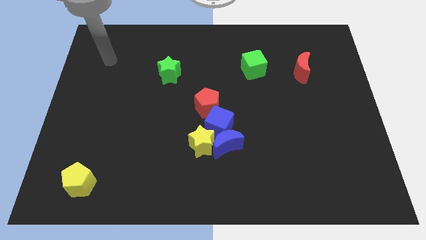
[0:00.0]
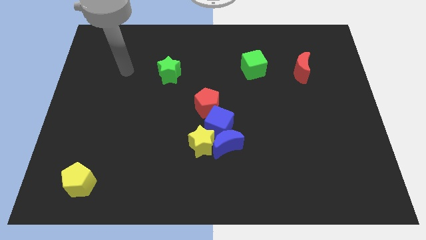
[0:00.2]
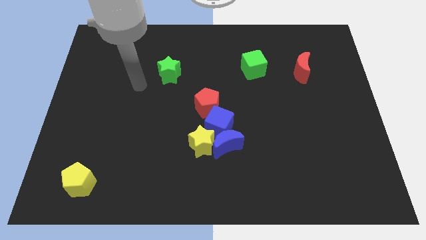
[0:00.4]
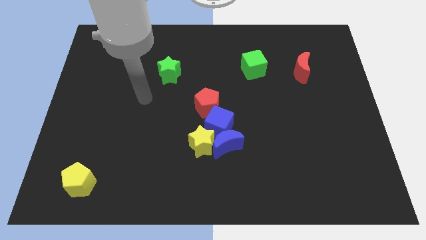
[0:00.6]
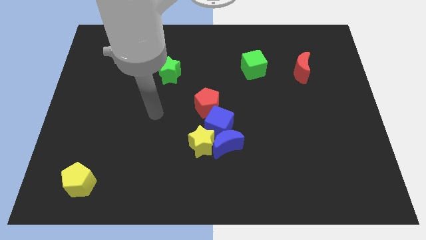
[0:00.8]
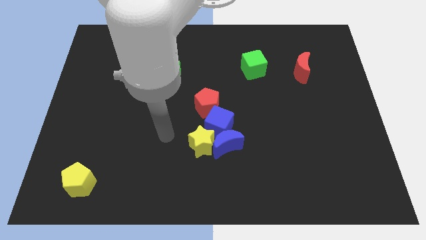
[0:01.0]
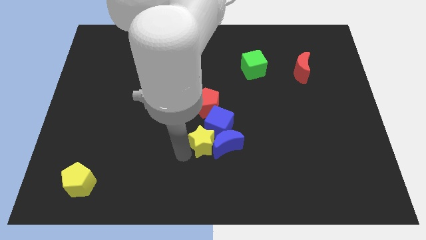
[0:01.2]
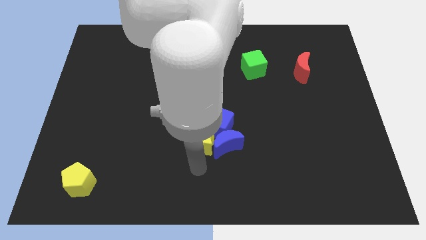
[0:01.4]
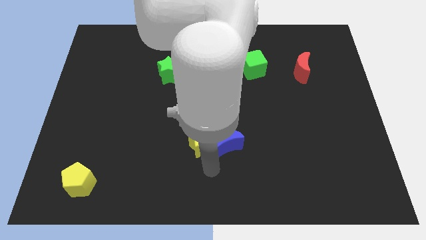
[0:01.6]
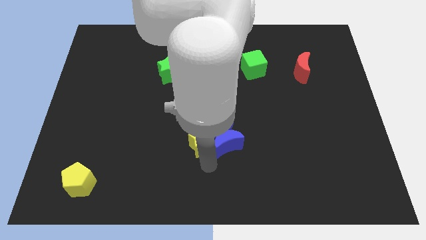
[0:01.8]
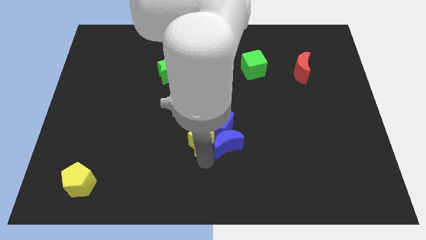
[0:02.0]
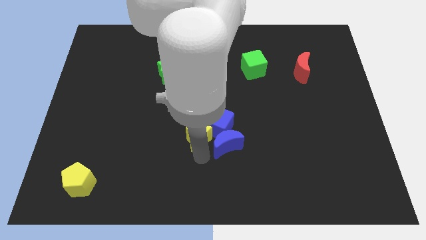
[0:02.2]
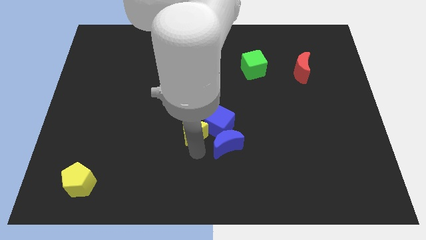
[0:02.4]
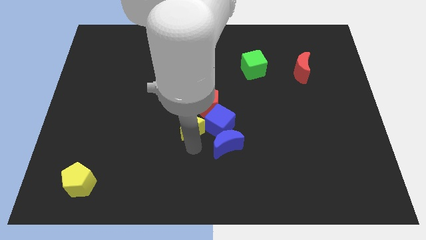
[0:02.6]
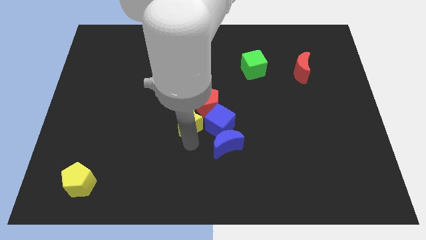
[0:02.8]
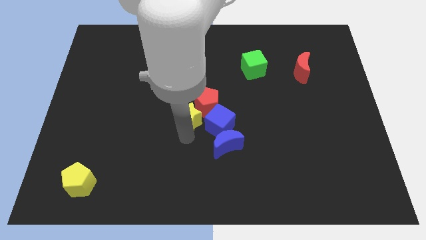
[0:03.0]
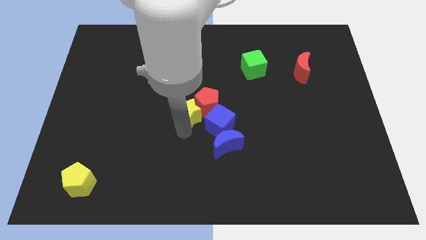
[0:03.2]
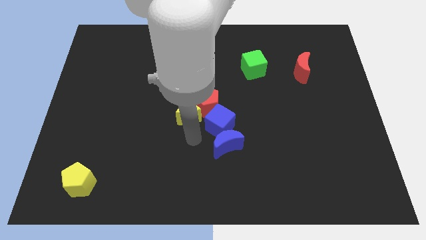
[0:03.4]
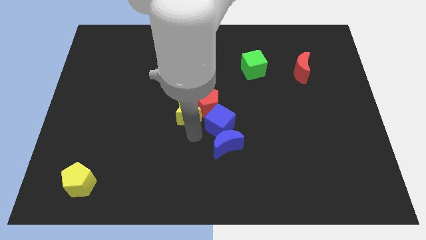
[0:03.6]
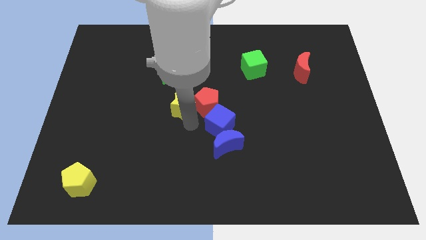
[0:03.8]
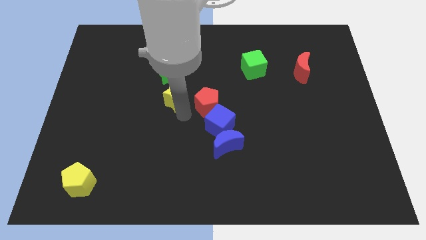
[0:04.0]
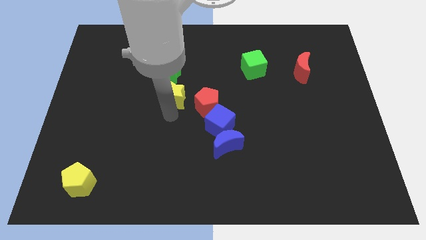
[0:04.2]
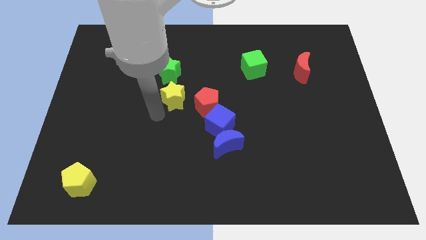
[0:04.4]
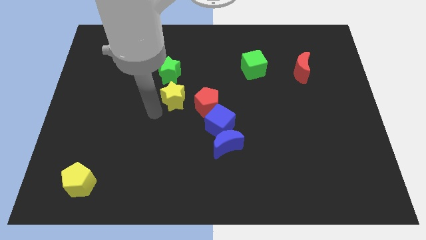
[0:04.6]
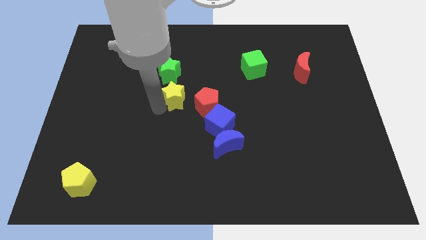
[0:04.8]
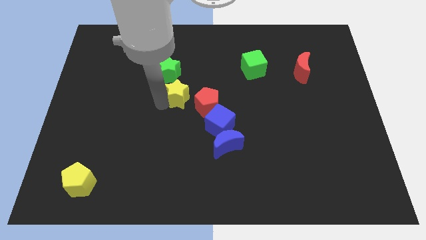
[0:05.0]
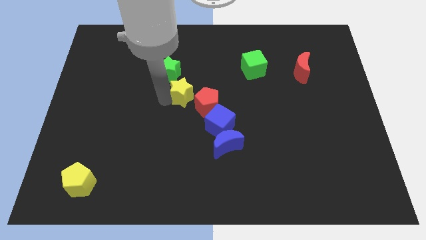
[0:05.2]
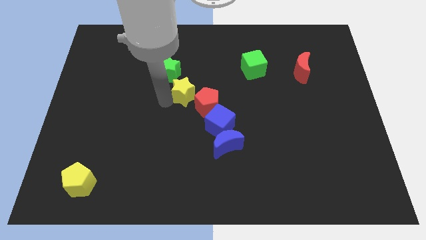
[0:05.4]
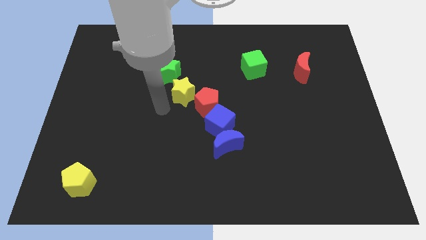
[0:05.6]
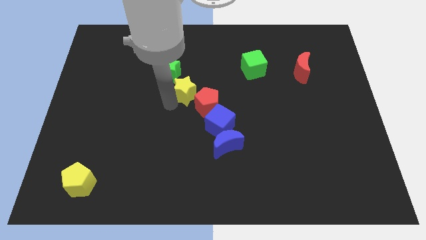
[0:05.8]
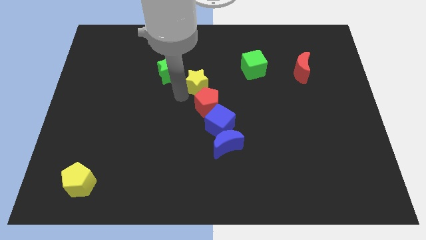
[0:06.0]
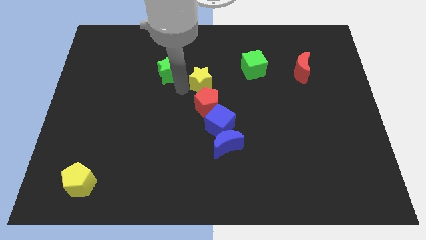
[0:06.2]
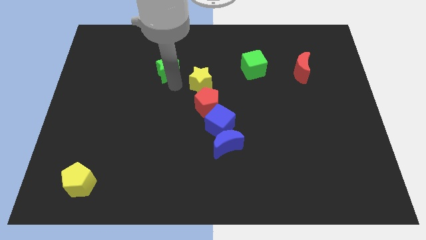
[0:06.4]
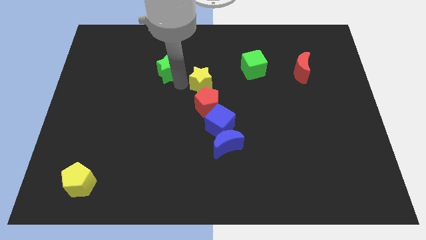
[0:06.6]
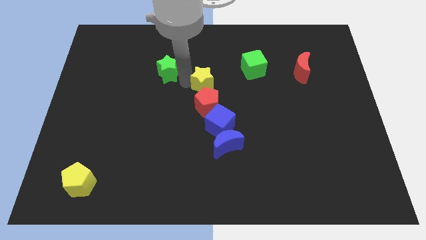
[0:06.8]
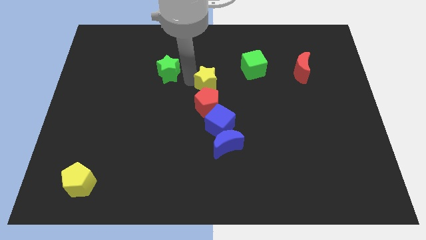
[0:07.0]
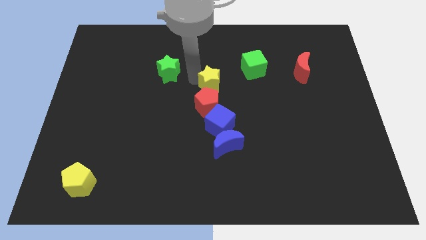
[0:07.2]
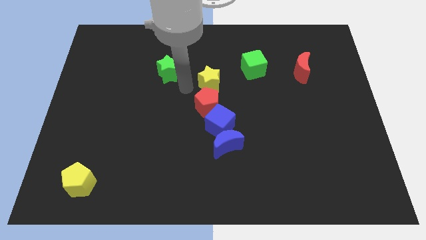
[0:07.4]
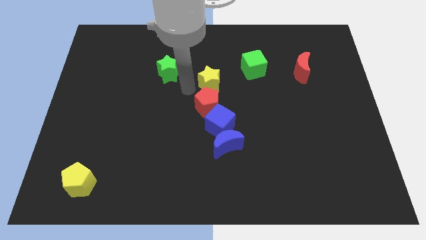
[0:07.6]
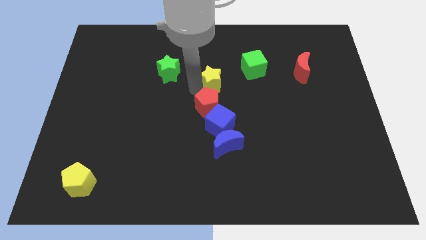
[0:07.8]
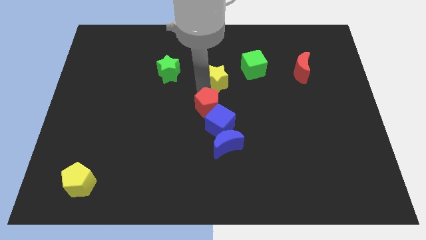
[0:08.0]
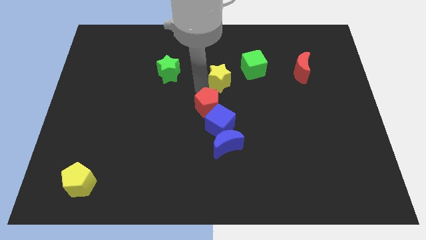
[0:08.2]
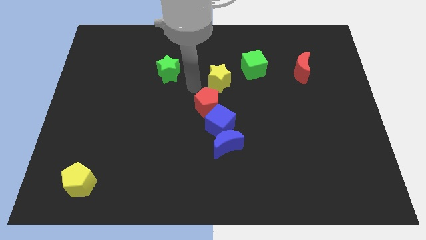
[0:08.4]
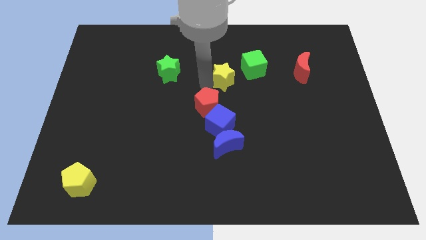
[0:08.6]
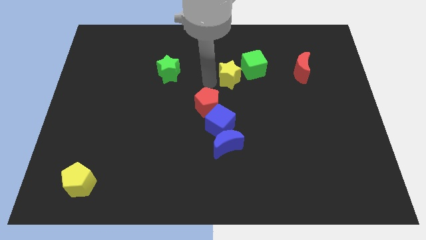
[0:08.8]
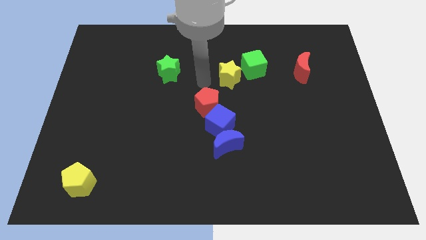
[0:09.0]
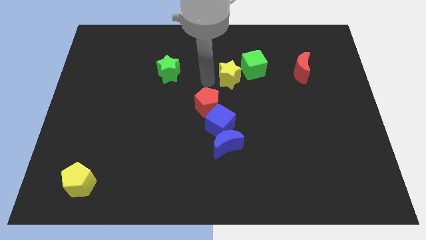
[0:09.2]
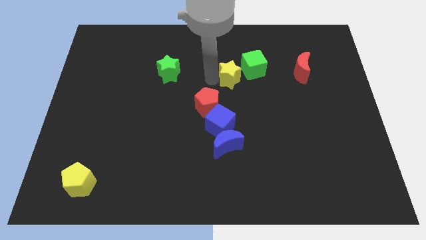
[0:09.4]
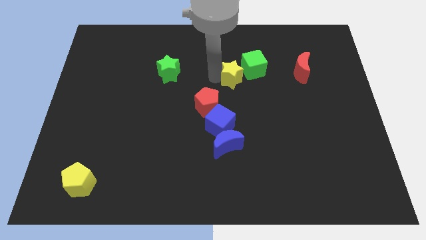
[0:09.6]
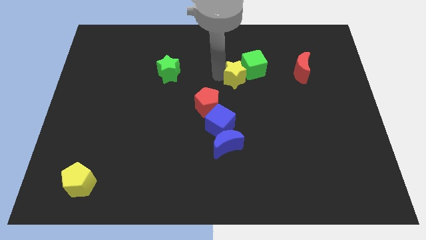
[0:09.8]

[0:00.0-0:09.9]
put the yellow star towards the green cube

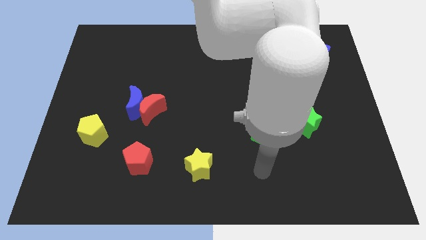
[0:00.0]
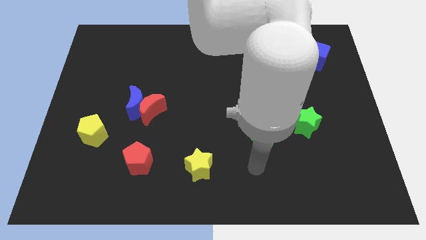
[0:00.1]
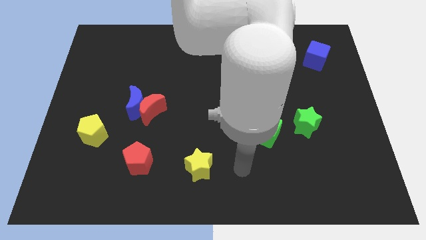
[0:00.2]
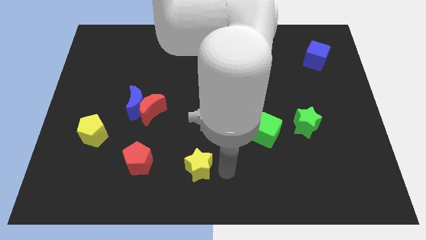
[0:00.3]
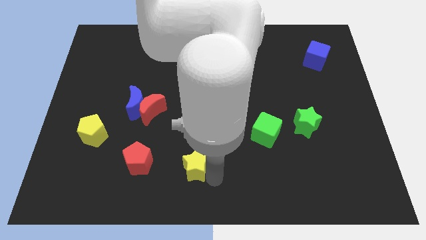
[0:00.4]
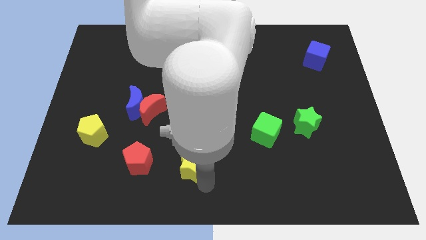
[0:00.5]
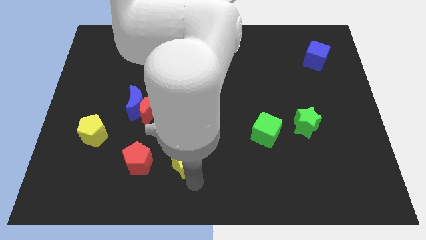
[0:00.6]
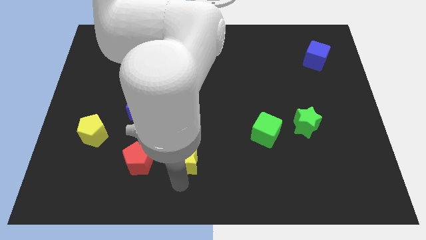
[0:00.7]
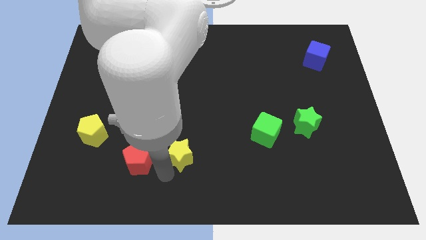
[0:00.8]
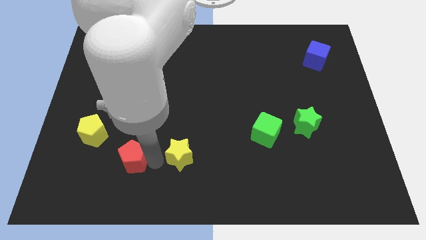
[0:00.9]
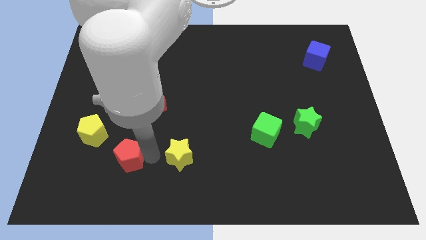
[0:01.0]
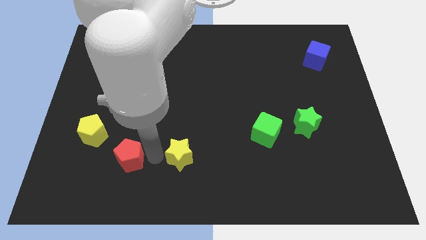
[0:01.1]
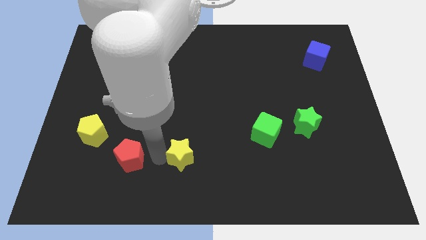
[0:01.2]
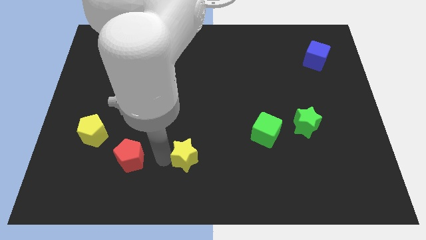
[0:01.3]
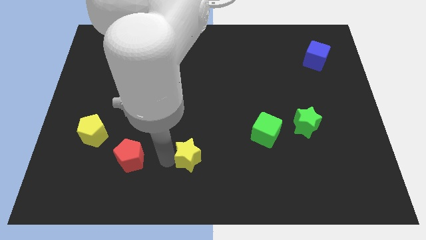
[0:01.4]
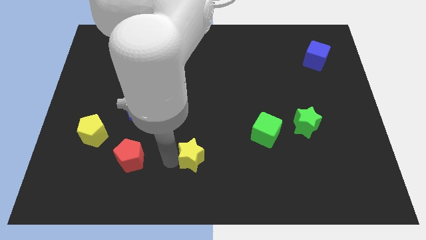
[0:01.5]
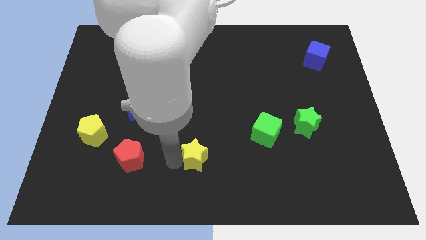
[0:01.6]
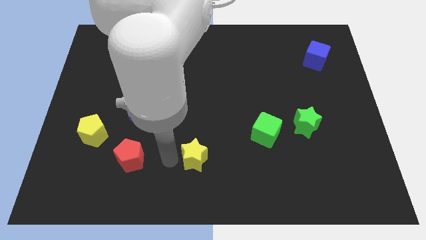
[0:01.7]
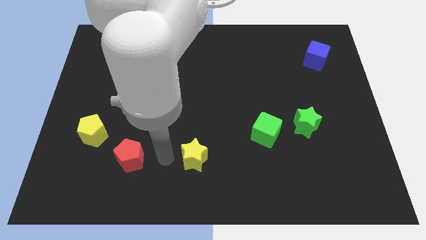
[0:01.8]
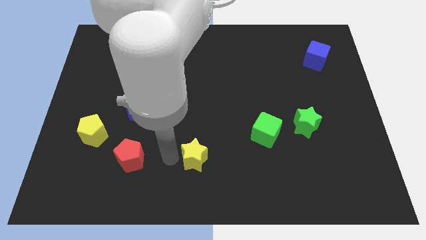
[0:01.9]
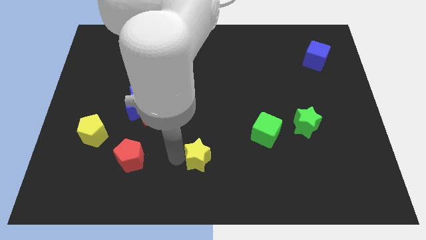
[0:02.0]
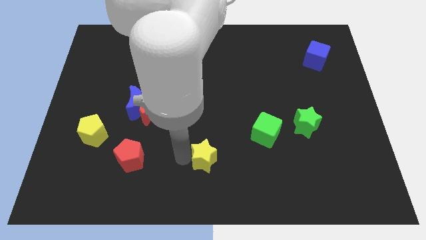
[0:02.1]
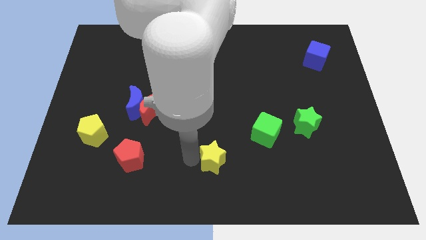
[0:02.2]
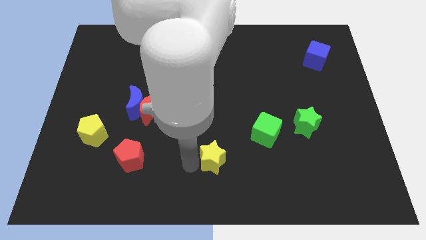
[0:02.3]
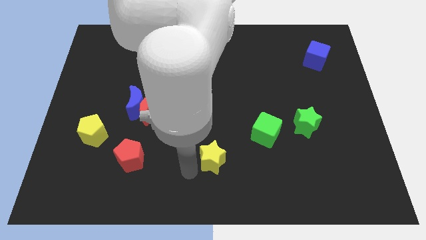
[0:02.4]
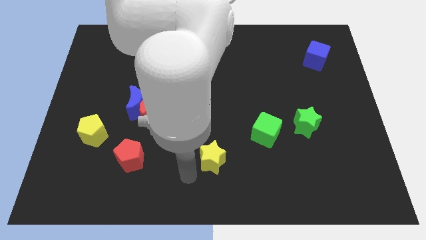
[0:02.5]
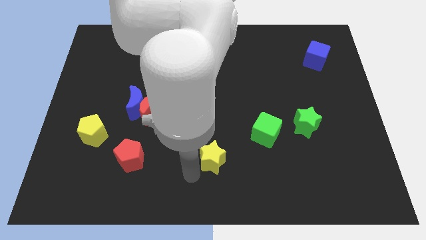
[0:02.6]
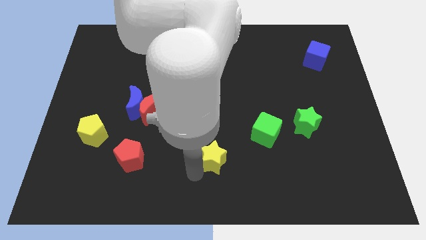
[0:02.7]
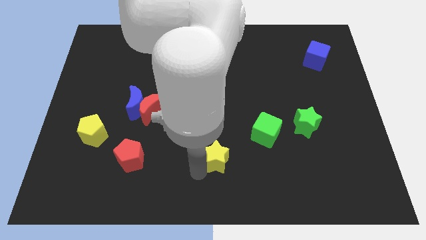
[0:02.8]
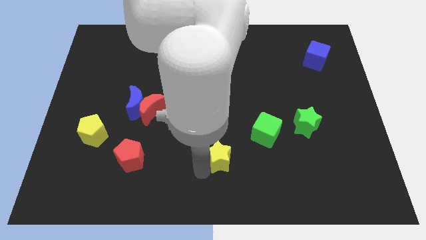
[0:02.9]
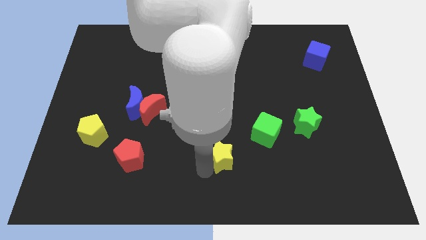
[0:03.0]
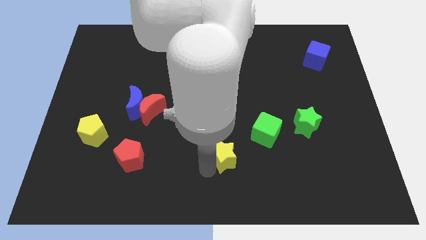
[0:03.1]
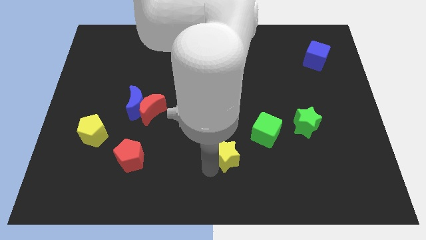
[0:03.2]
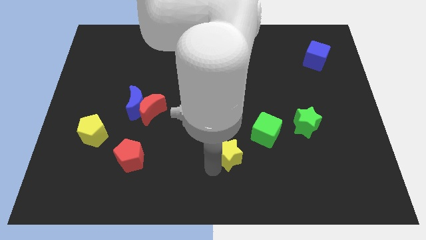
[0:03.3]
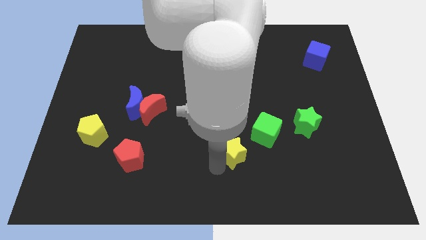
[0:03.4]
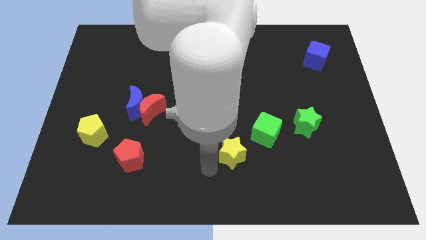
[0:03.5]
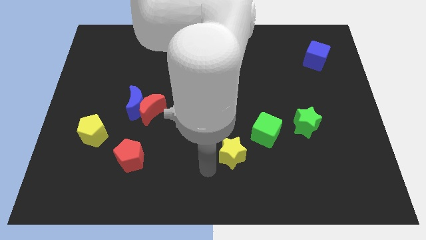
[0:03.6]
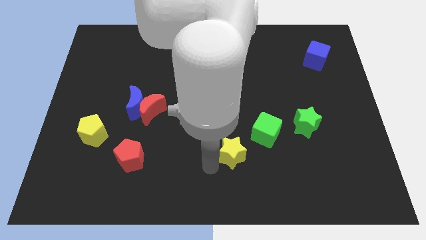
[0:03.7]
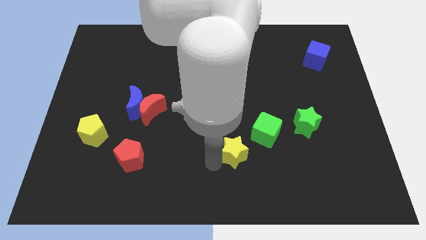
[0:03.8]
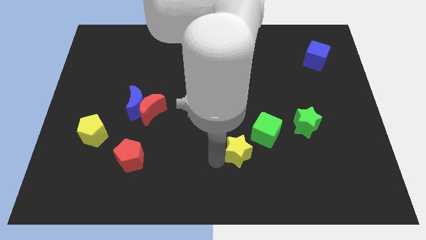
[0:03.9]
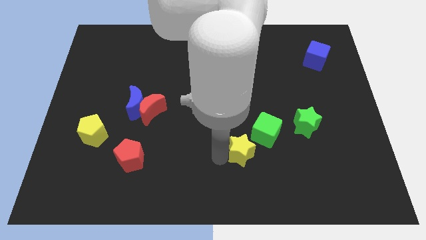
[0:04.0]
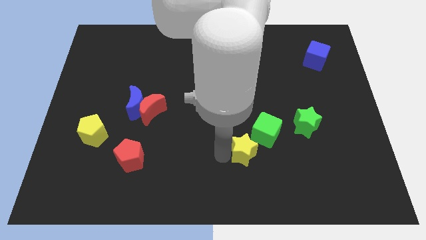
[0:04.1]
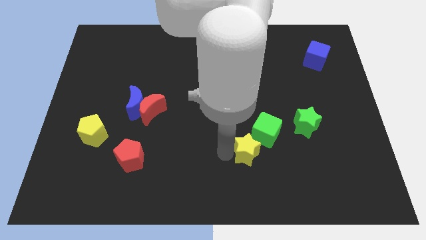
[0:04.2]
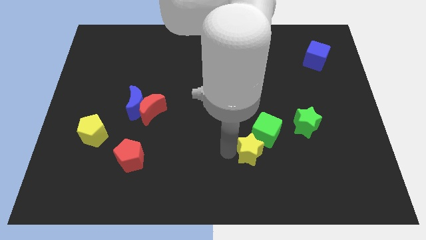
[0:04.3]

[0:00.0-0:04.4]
push the yellow star next to the green cube
